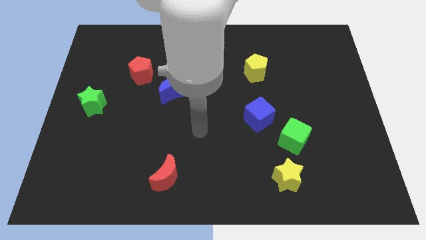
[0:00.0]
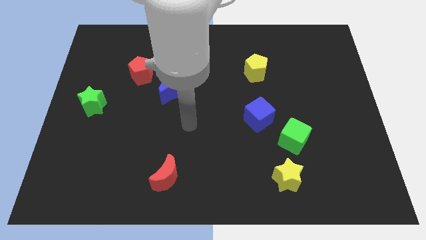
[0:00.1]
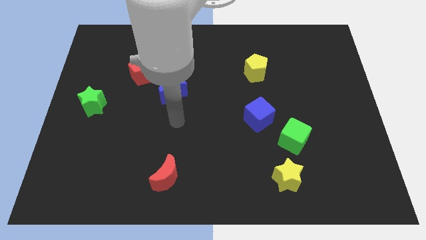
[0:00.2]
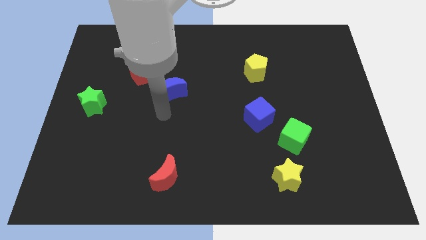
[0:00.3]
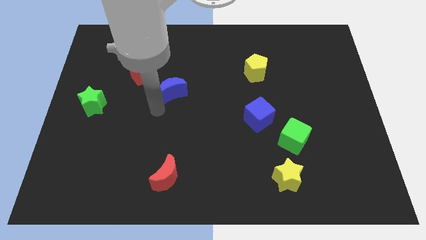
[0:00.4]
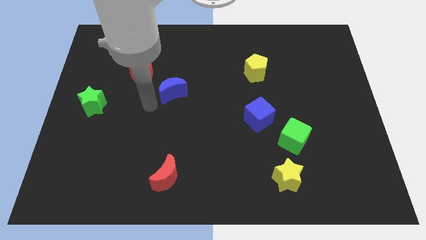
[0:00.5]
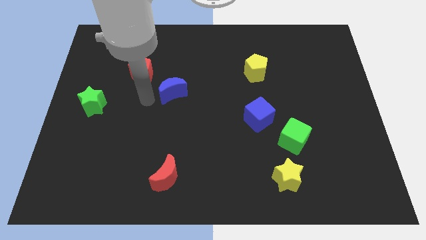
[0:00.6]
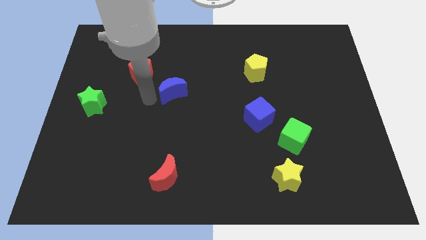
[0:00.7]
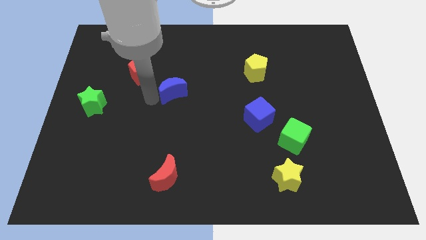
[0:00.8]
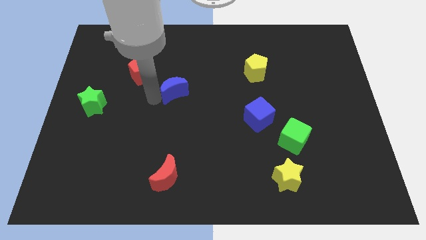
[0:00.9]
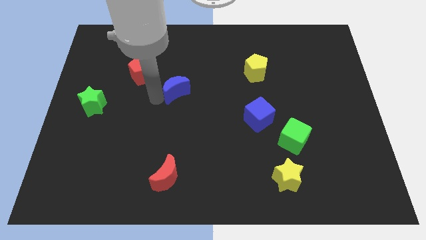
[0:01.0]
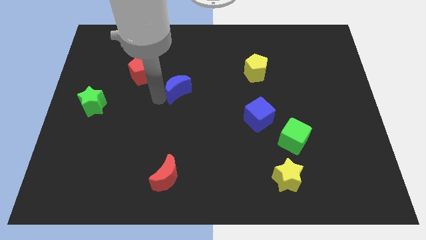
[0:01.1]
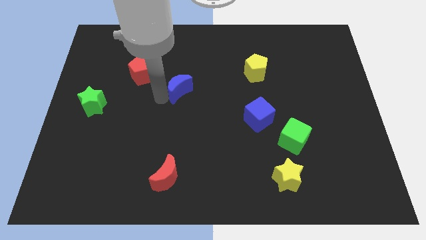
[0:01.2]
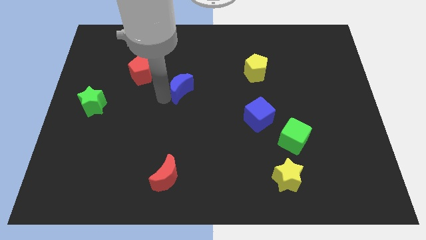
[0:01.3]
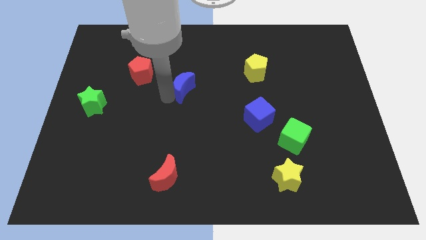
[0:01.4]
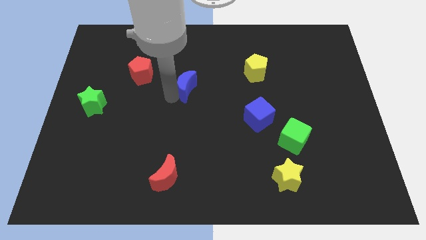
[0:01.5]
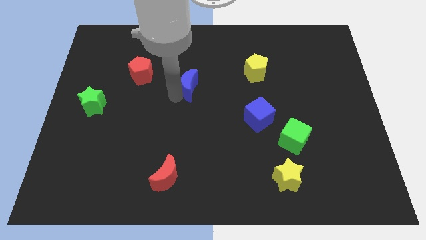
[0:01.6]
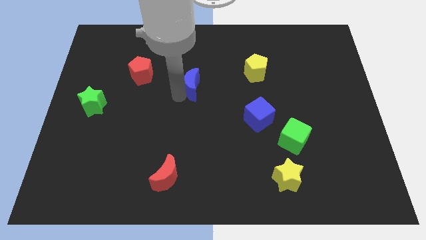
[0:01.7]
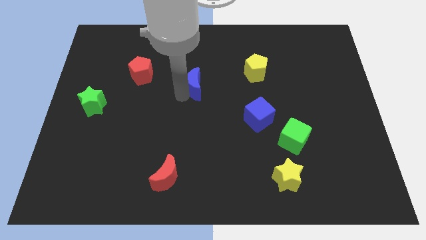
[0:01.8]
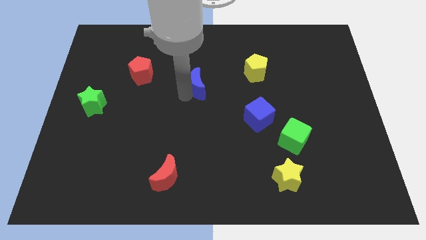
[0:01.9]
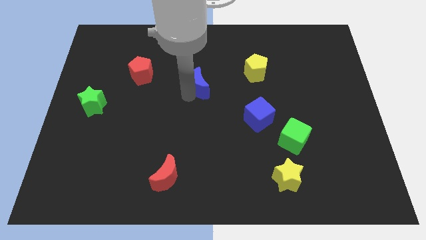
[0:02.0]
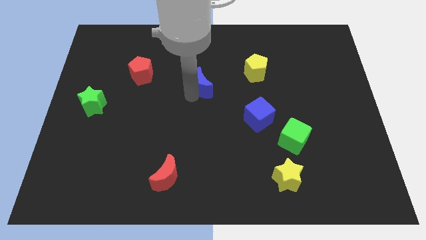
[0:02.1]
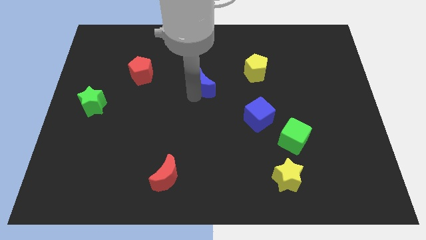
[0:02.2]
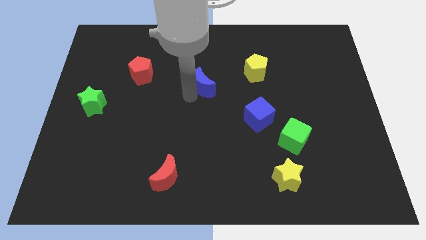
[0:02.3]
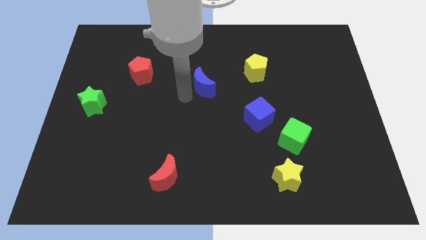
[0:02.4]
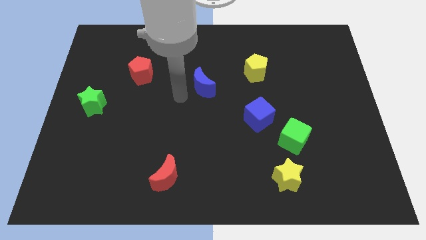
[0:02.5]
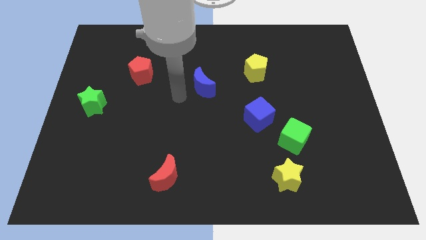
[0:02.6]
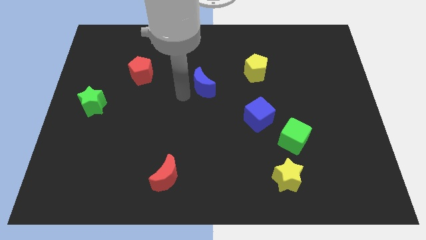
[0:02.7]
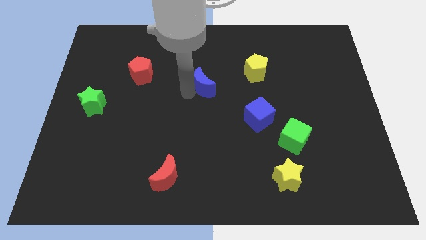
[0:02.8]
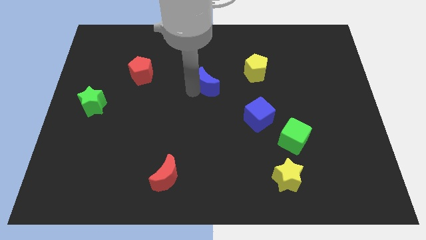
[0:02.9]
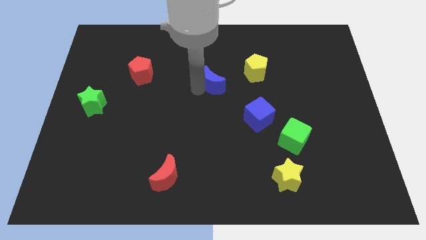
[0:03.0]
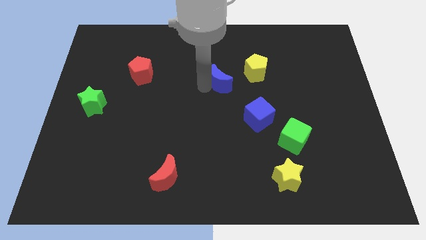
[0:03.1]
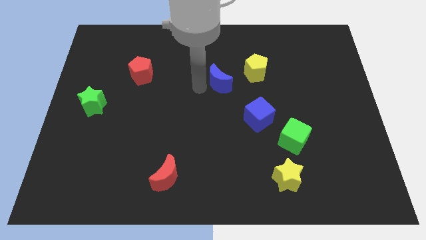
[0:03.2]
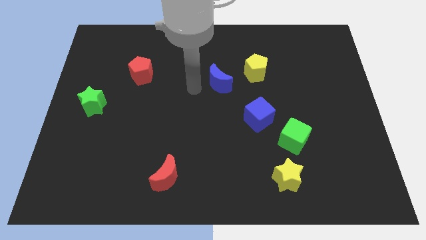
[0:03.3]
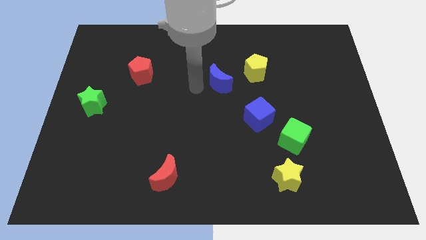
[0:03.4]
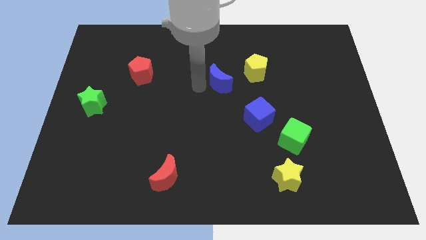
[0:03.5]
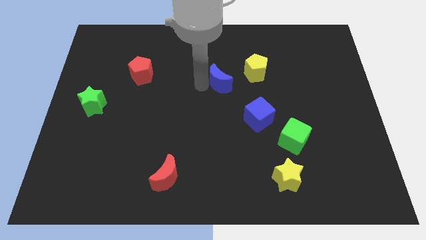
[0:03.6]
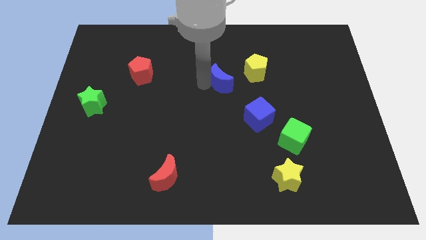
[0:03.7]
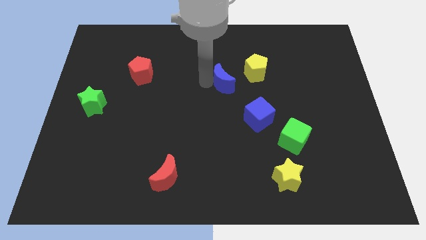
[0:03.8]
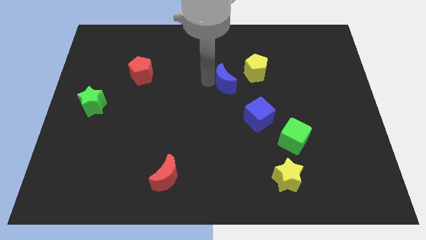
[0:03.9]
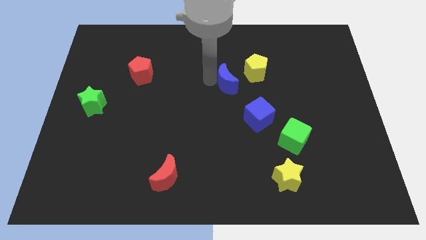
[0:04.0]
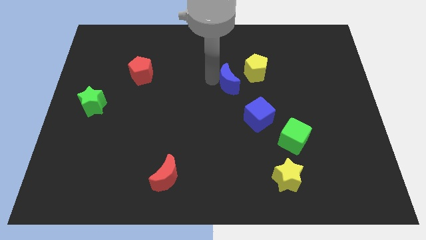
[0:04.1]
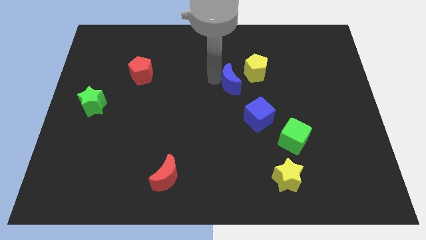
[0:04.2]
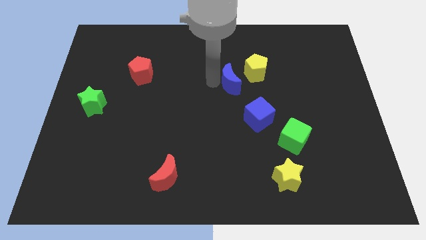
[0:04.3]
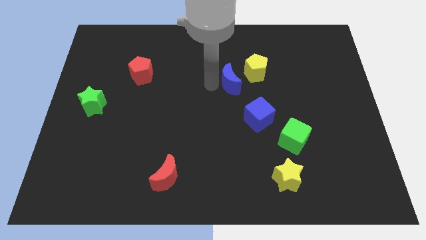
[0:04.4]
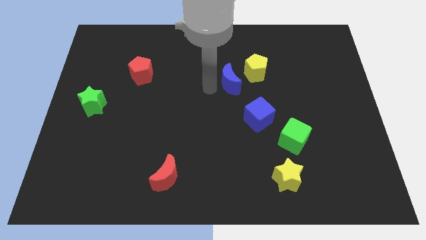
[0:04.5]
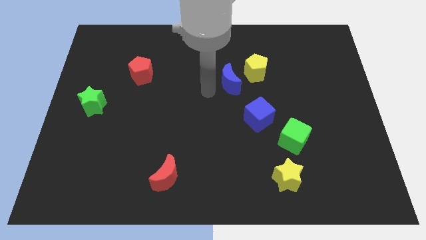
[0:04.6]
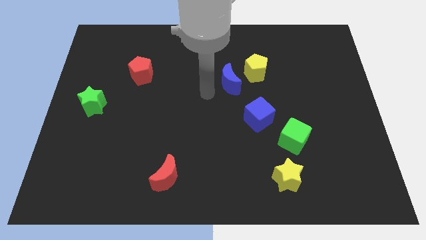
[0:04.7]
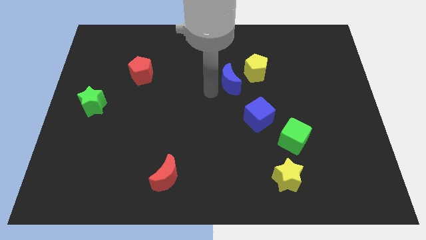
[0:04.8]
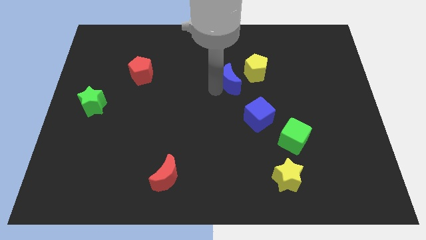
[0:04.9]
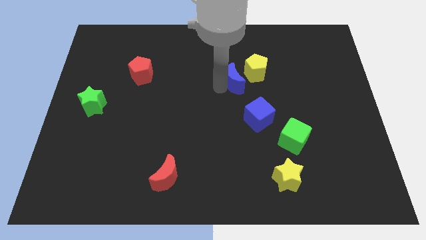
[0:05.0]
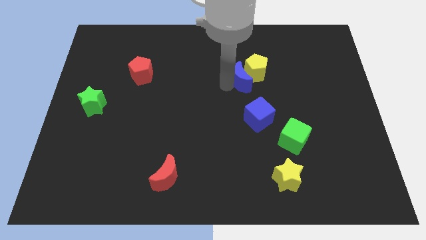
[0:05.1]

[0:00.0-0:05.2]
push the blue moon towards the yellow pentagon

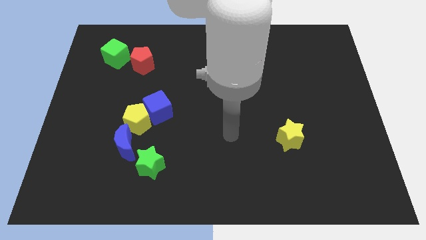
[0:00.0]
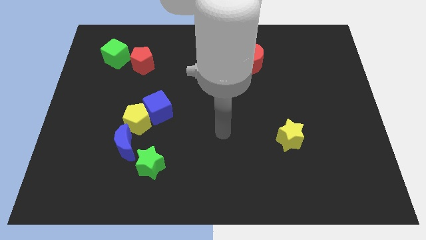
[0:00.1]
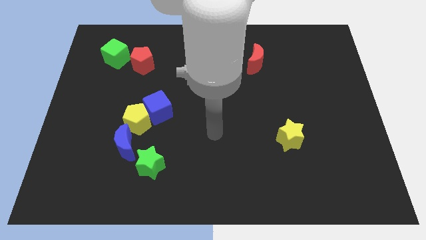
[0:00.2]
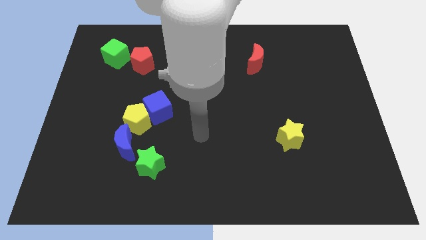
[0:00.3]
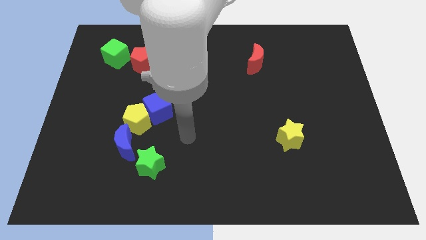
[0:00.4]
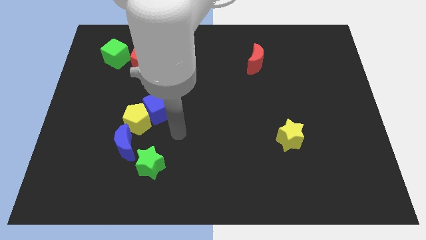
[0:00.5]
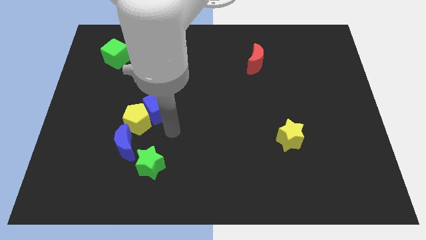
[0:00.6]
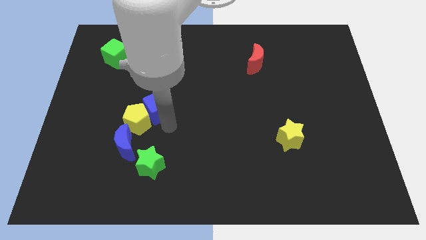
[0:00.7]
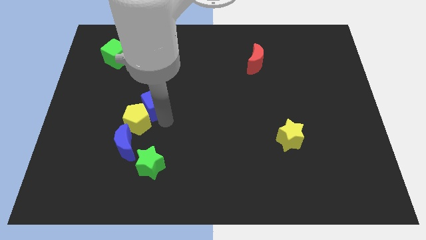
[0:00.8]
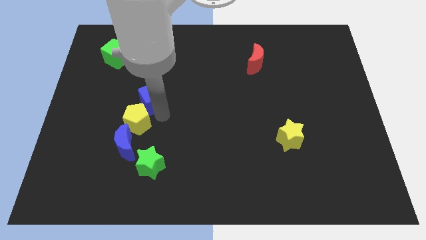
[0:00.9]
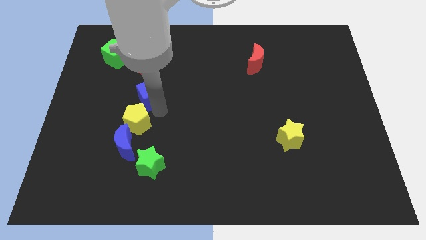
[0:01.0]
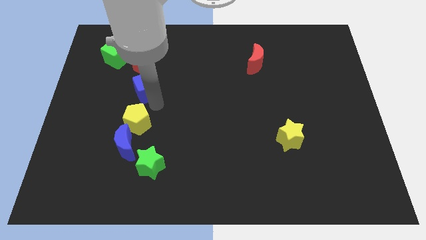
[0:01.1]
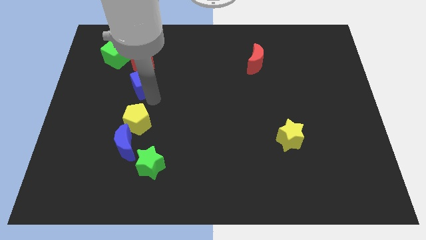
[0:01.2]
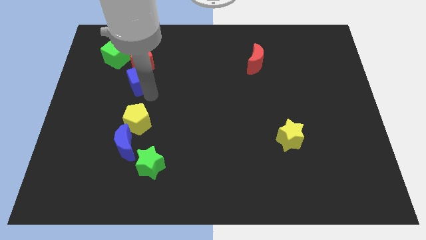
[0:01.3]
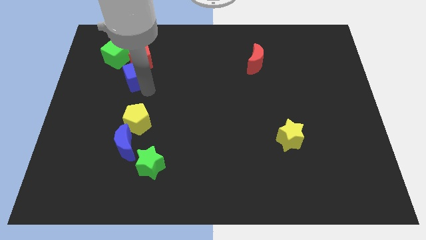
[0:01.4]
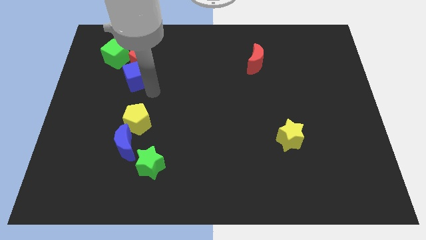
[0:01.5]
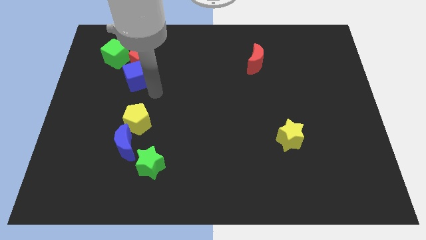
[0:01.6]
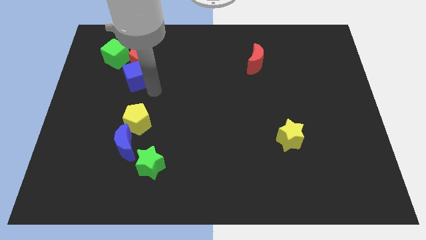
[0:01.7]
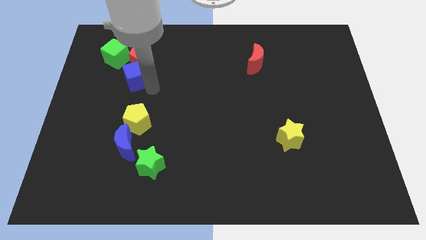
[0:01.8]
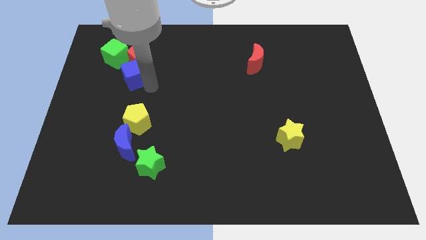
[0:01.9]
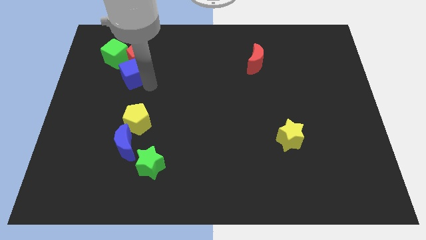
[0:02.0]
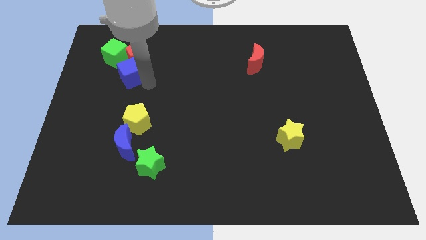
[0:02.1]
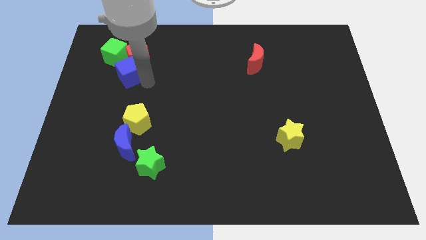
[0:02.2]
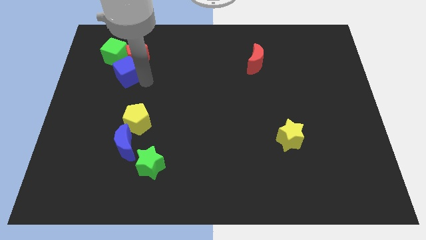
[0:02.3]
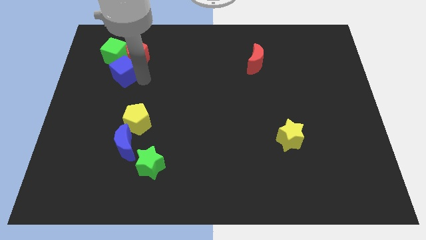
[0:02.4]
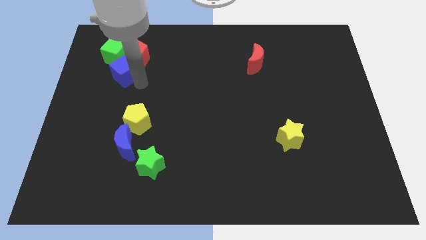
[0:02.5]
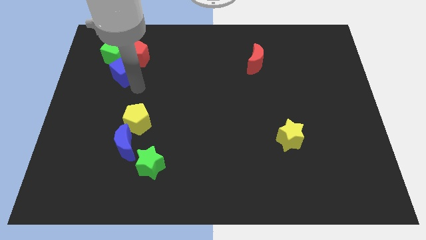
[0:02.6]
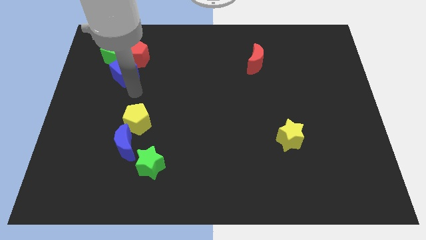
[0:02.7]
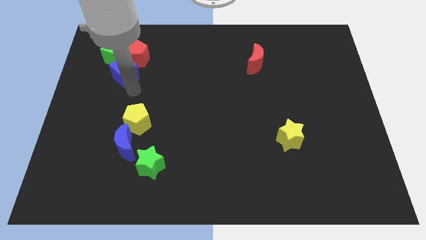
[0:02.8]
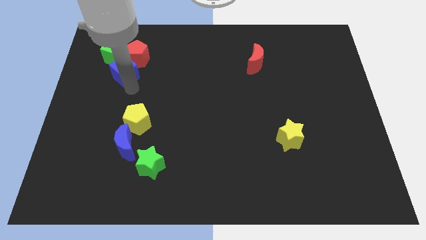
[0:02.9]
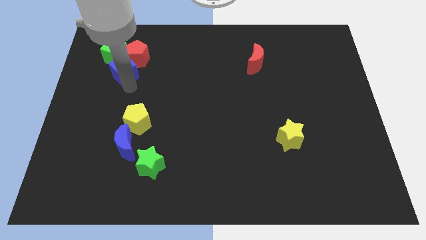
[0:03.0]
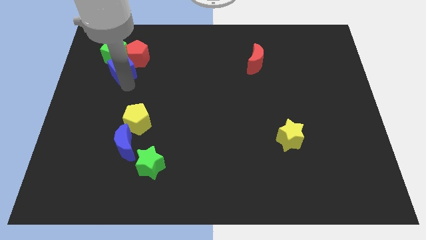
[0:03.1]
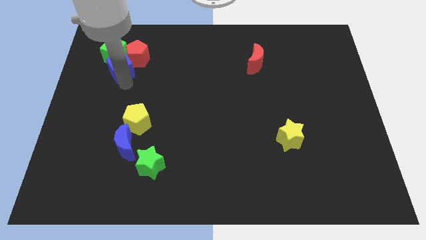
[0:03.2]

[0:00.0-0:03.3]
put the blue cube close to the green cube
